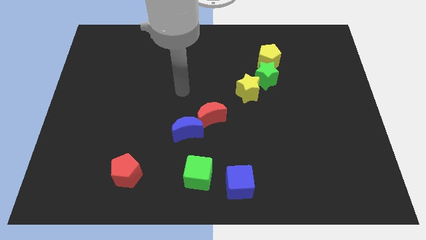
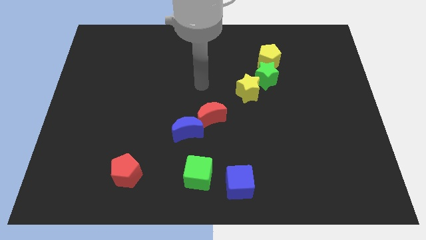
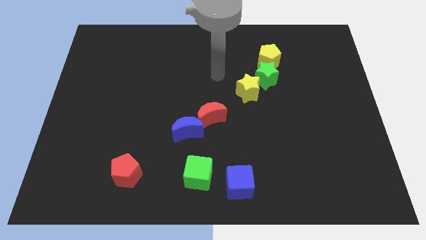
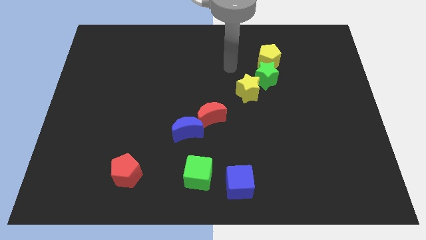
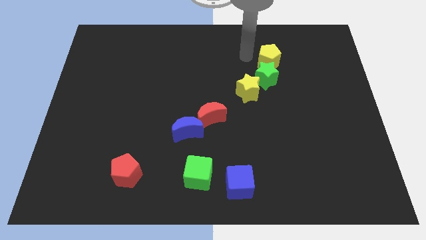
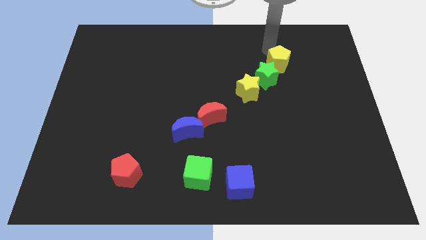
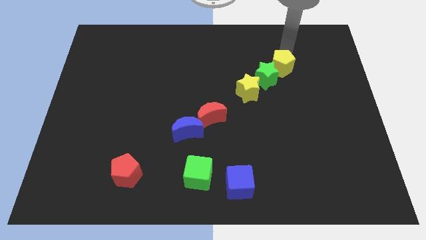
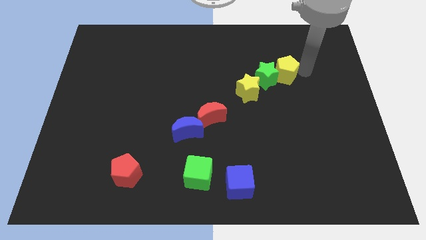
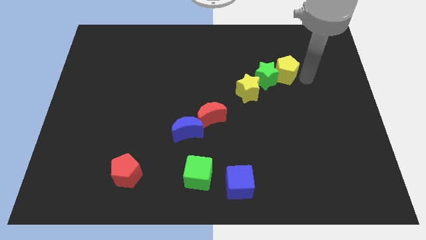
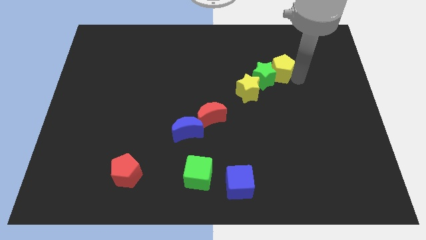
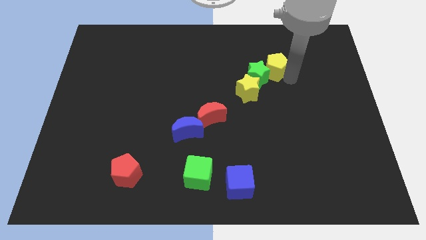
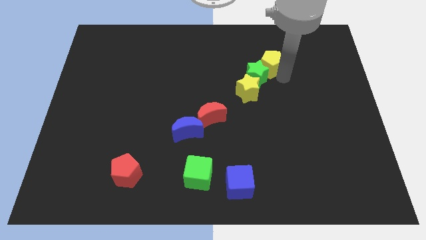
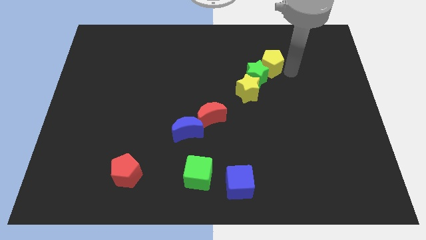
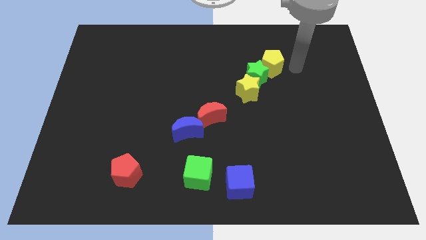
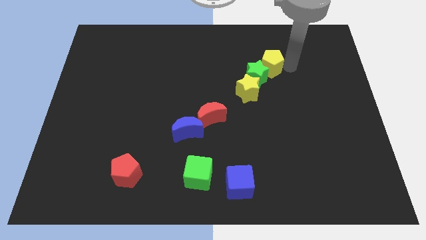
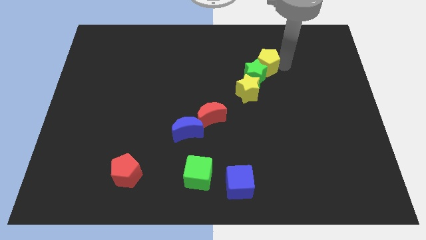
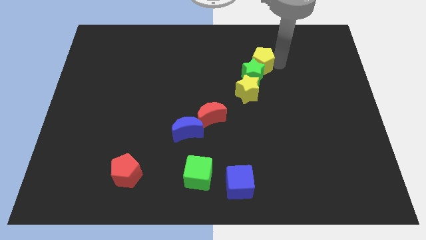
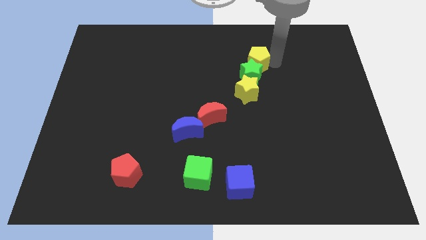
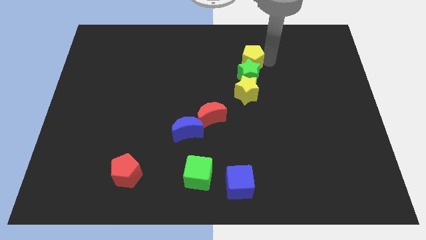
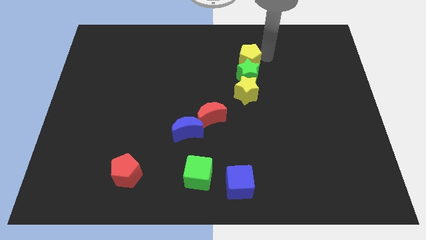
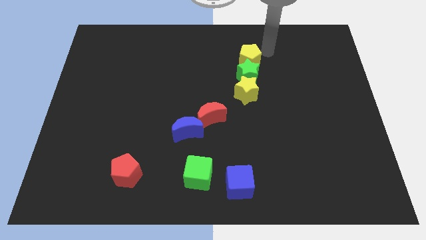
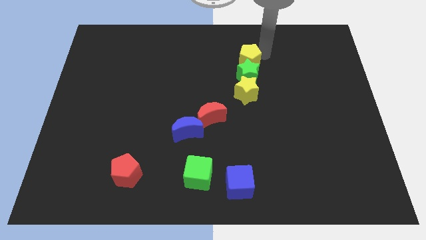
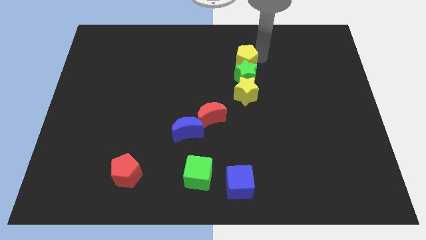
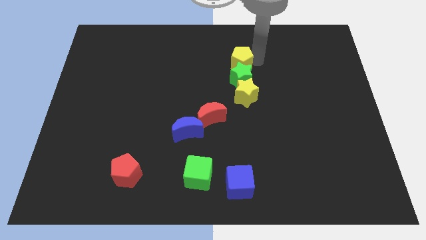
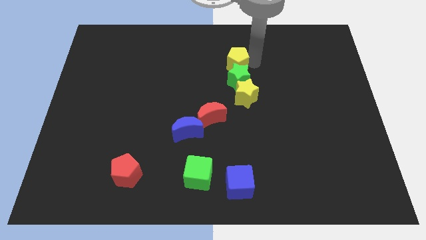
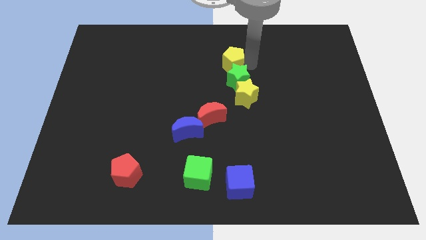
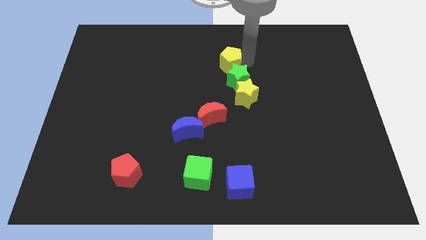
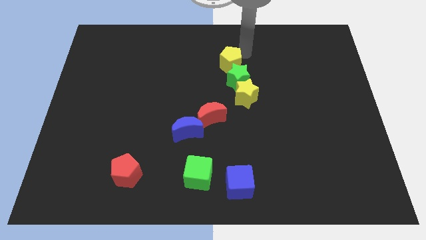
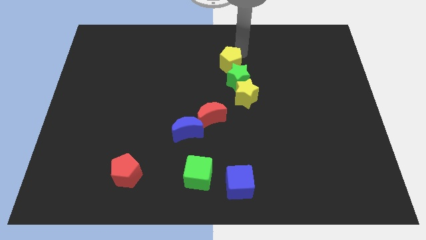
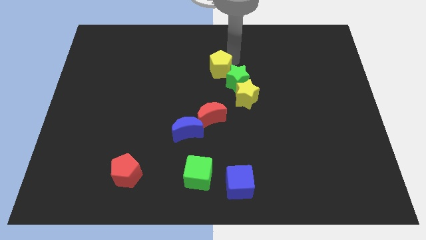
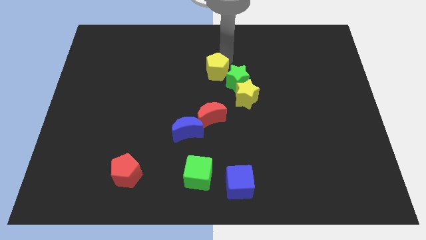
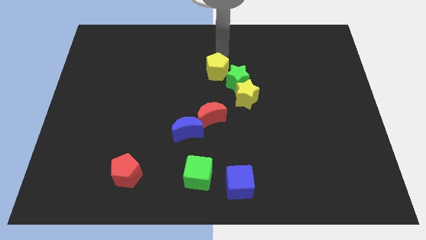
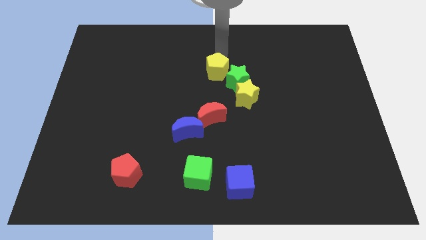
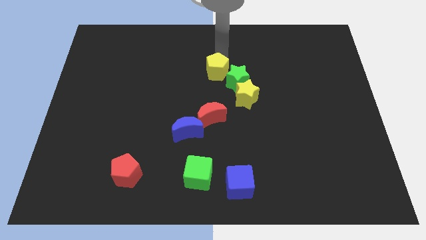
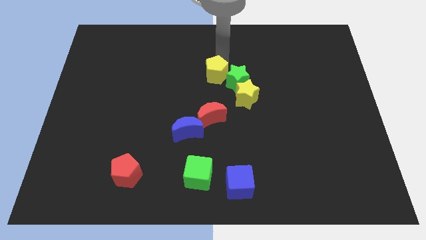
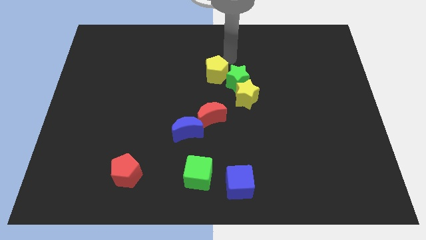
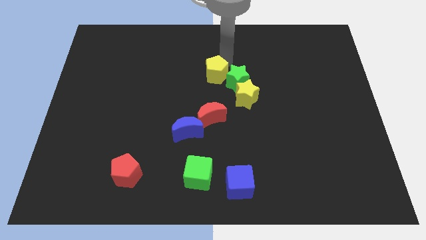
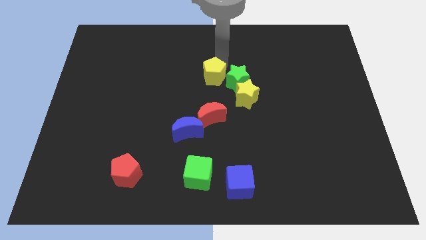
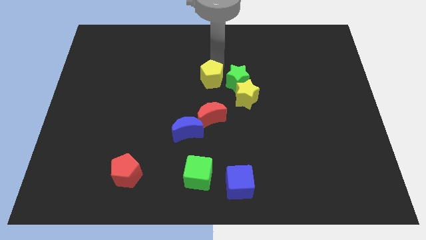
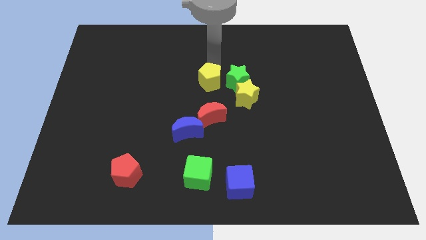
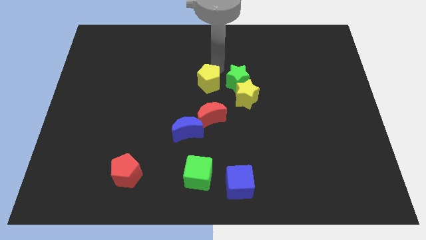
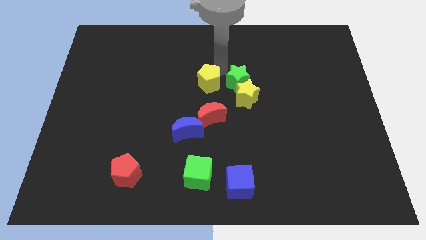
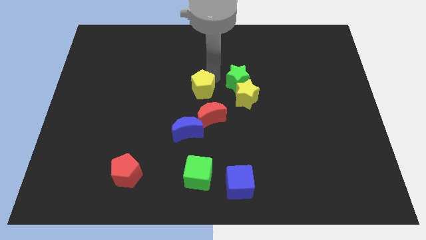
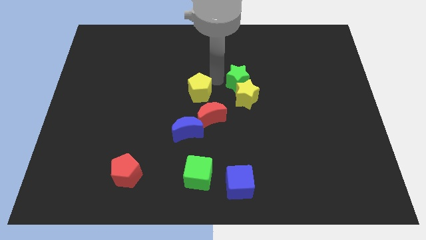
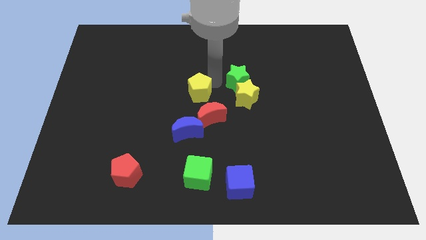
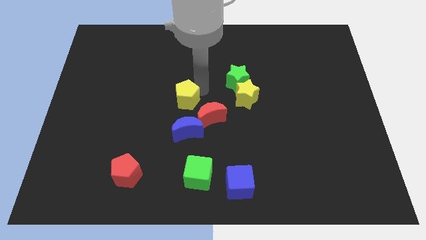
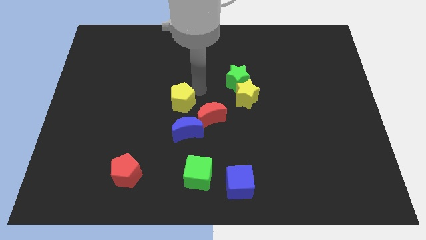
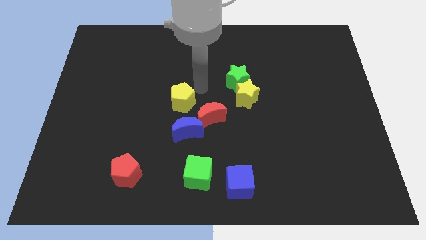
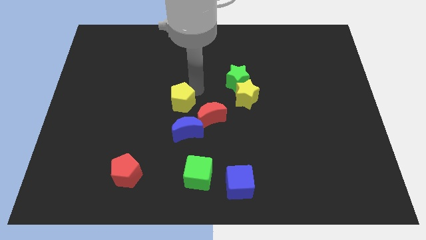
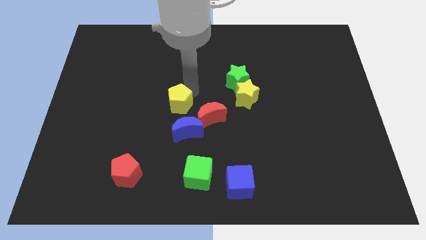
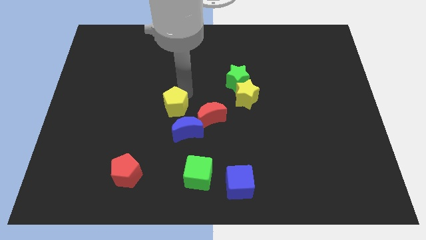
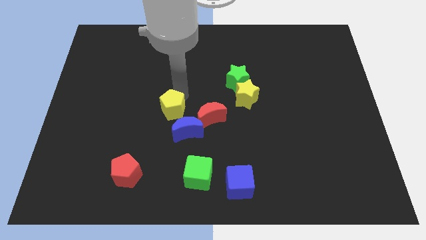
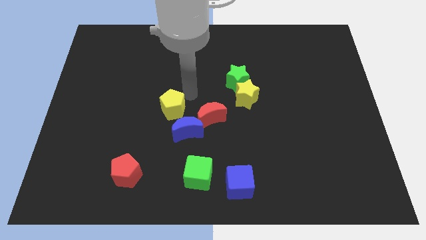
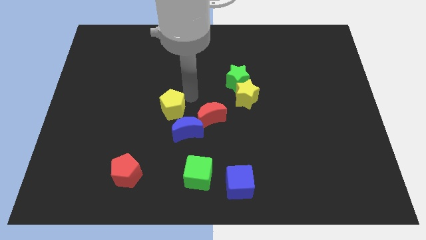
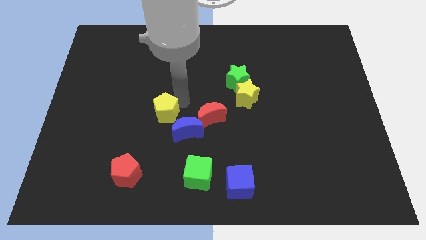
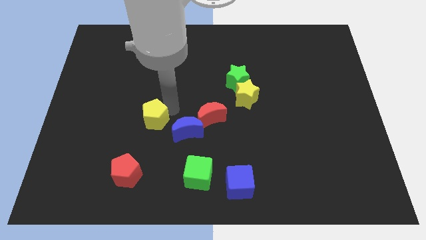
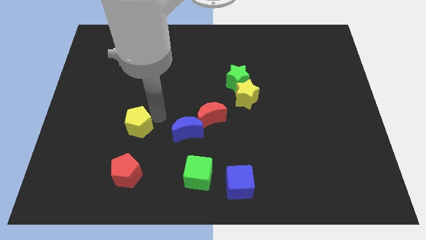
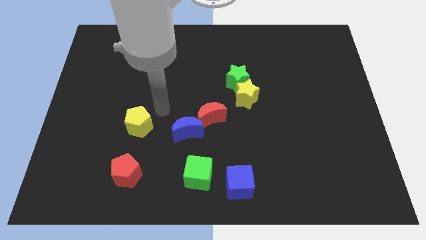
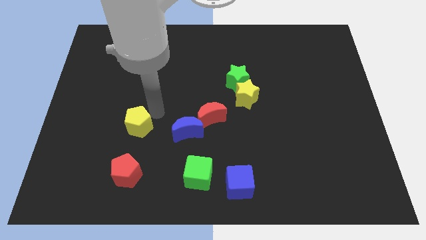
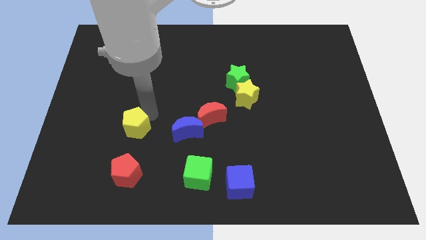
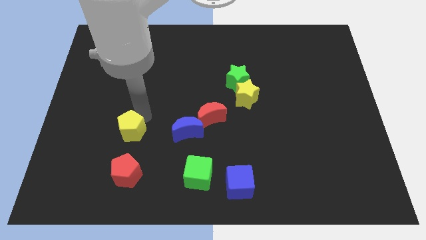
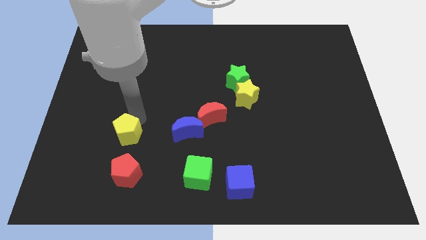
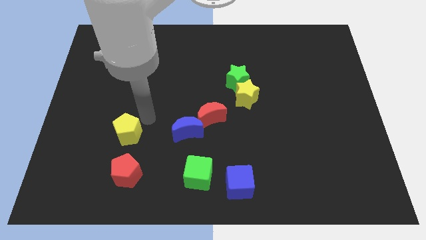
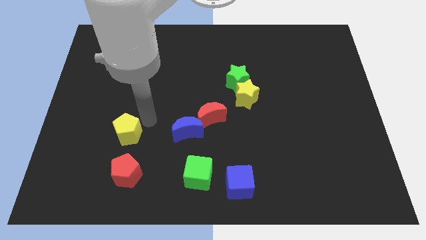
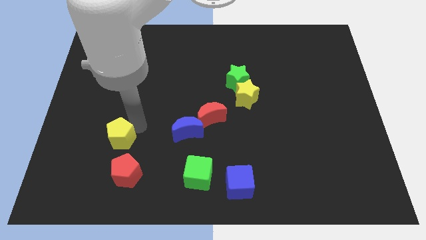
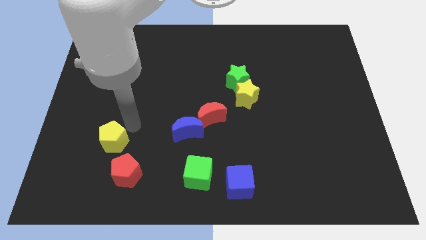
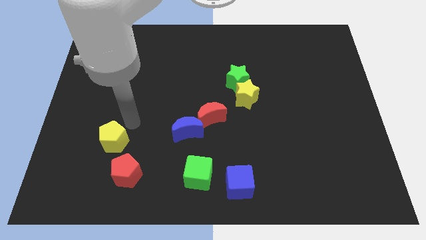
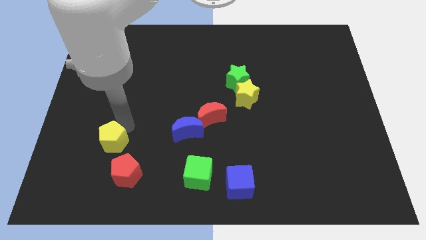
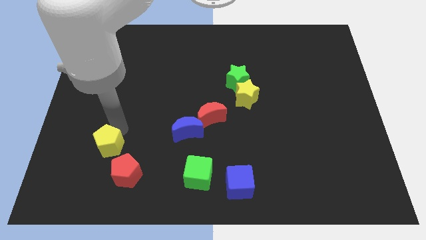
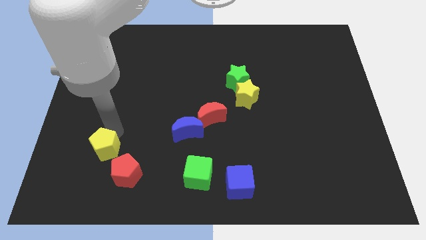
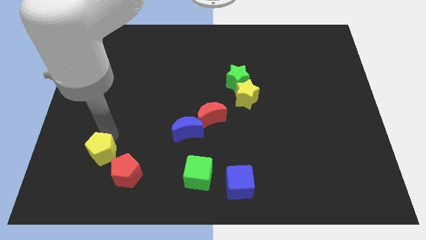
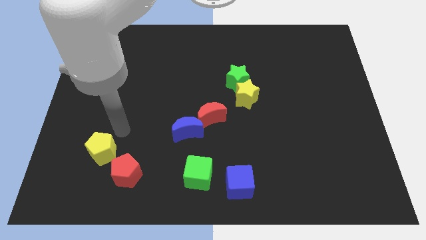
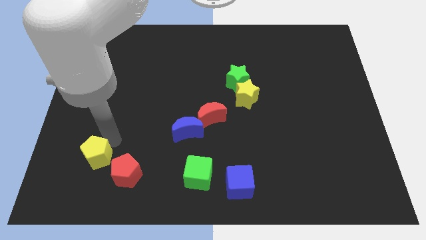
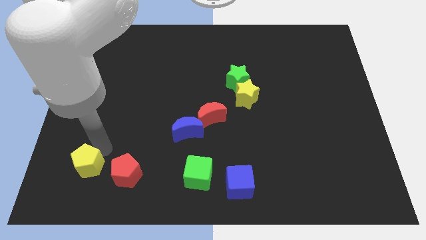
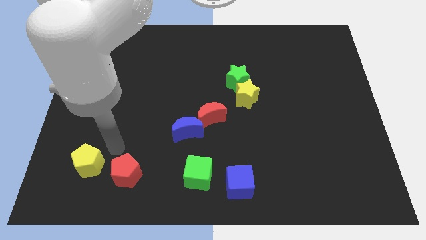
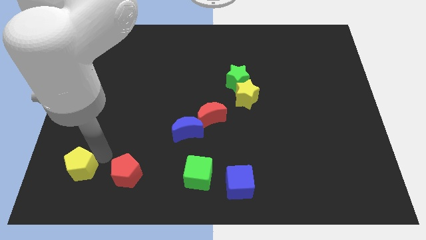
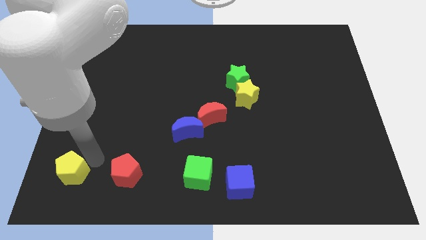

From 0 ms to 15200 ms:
move the yellow pentagon to the bottom left corner
